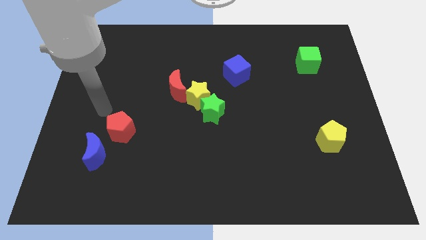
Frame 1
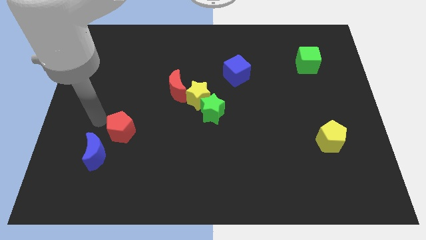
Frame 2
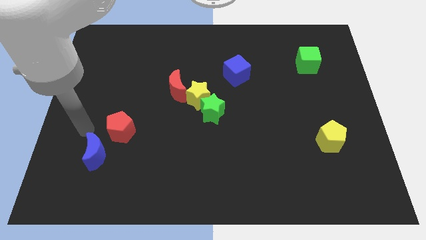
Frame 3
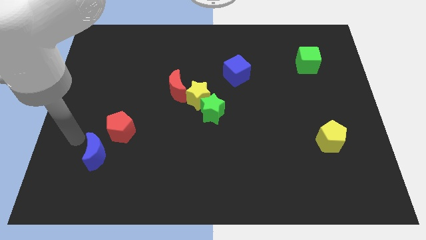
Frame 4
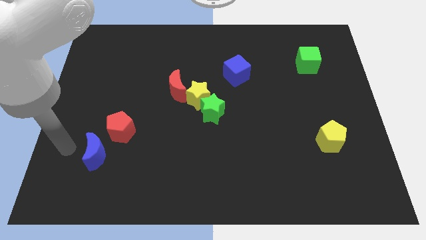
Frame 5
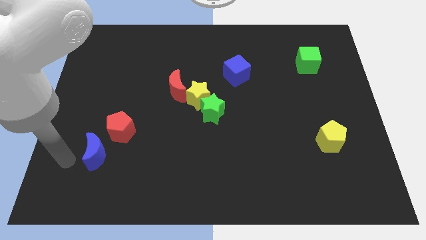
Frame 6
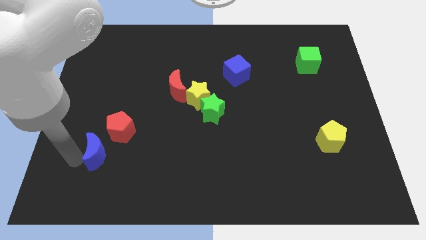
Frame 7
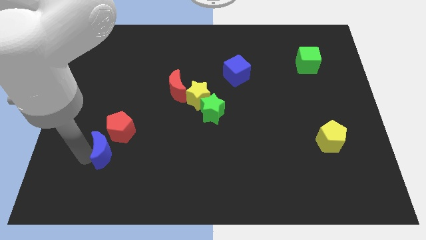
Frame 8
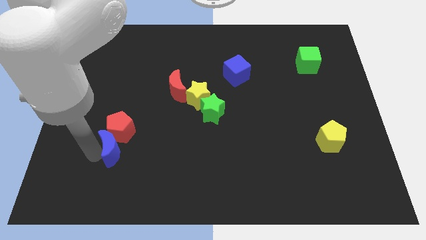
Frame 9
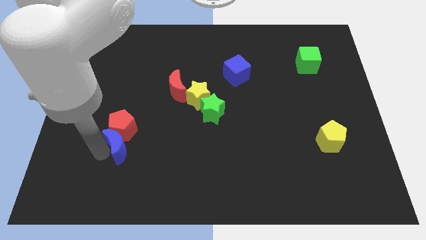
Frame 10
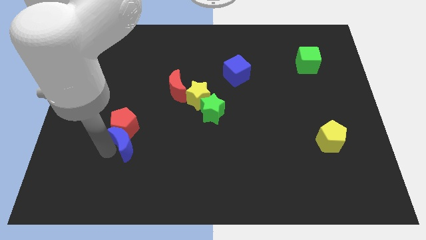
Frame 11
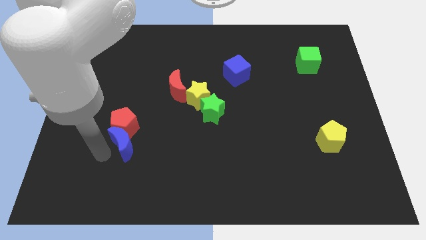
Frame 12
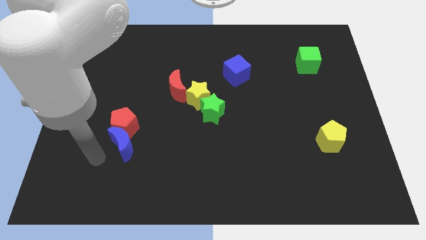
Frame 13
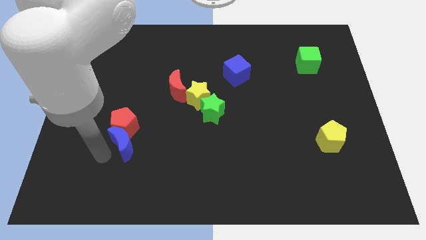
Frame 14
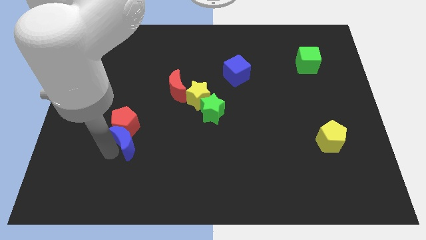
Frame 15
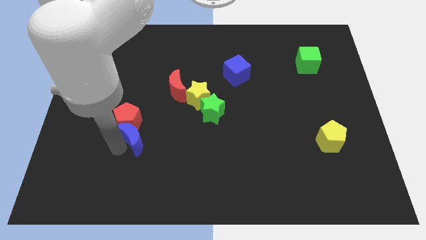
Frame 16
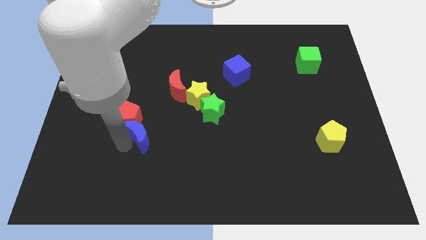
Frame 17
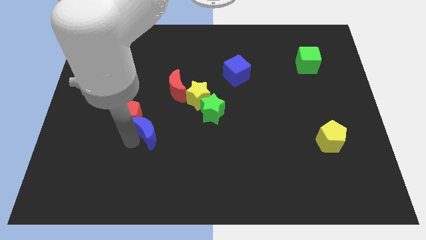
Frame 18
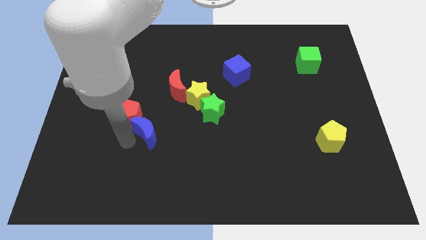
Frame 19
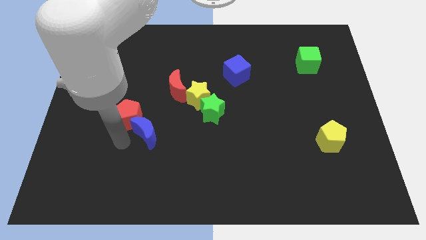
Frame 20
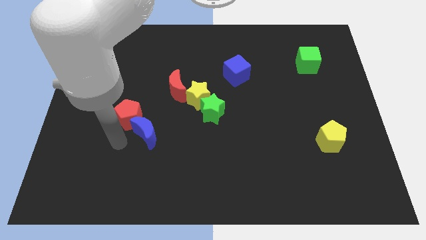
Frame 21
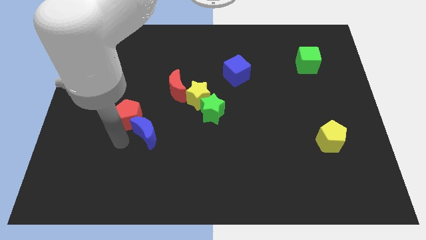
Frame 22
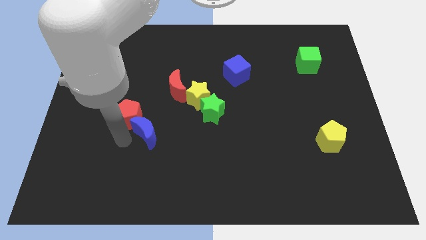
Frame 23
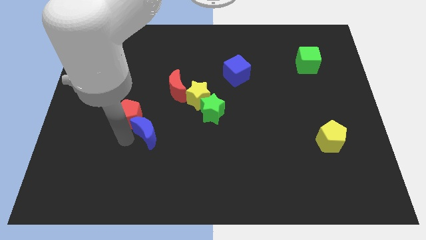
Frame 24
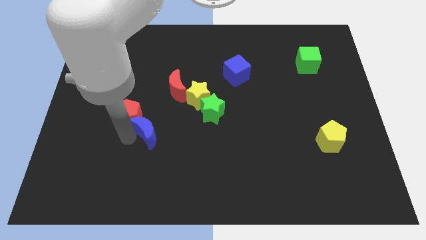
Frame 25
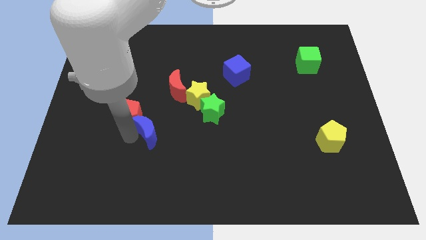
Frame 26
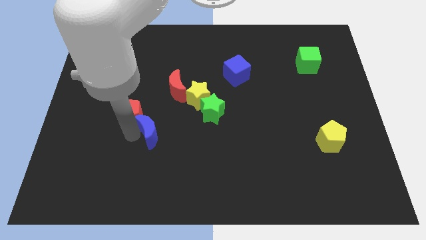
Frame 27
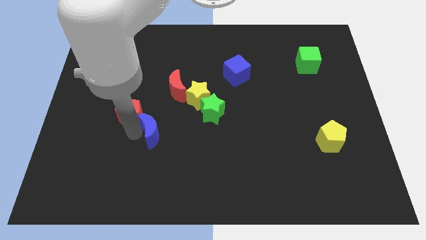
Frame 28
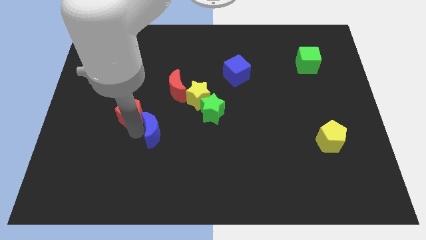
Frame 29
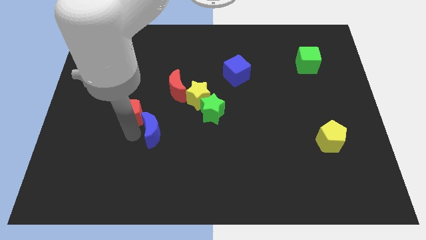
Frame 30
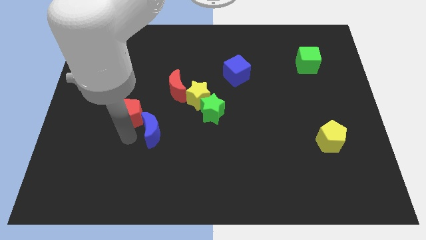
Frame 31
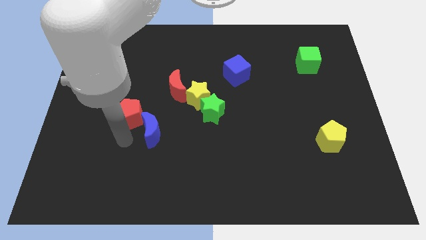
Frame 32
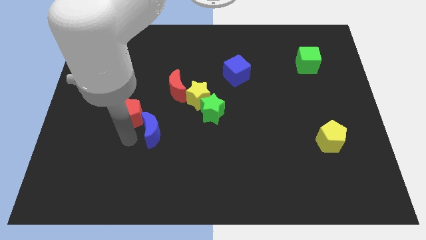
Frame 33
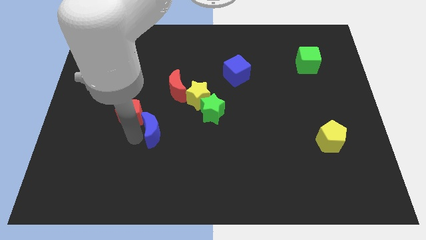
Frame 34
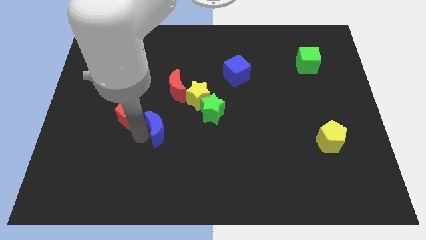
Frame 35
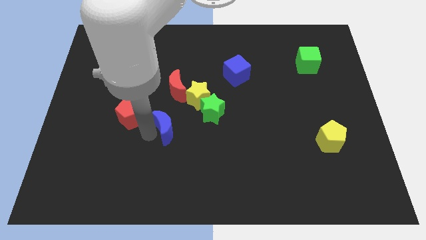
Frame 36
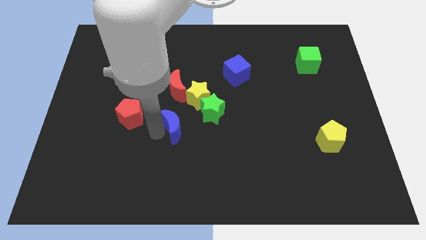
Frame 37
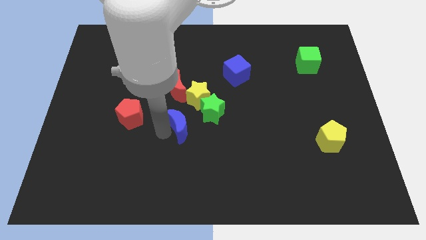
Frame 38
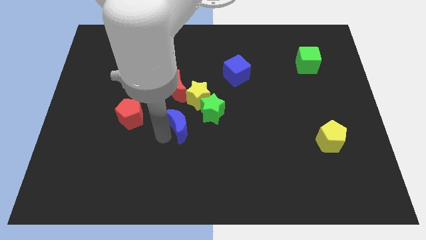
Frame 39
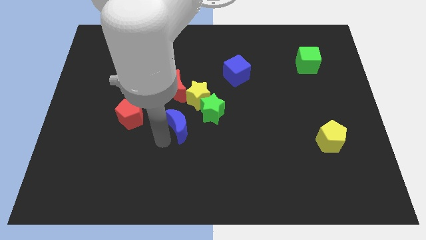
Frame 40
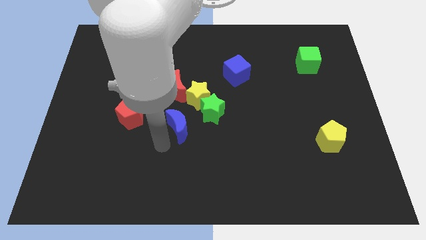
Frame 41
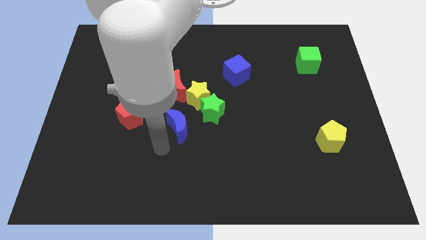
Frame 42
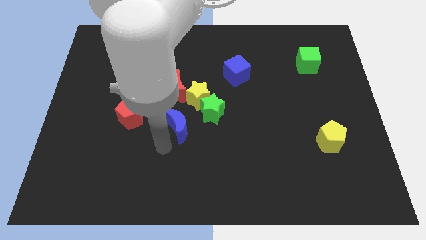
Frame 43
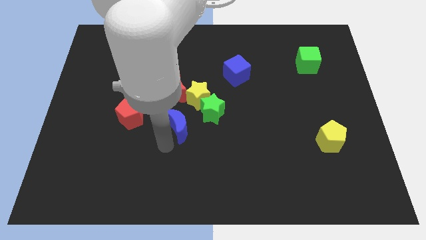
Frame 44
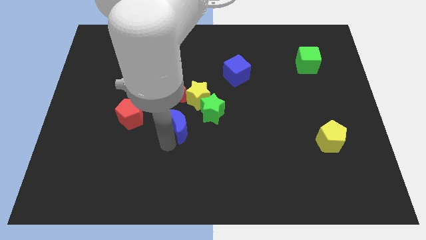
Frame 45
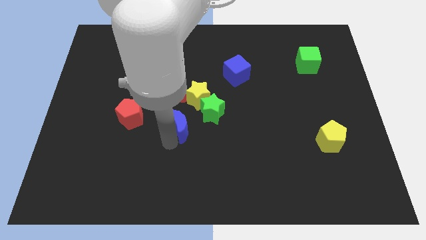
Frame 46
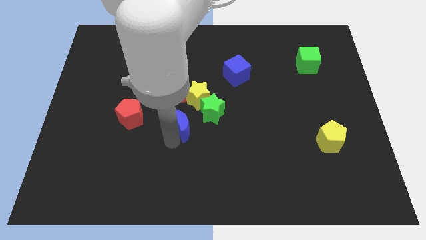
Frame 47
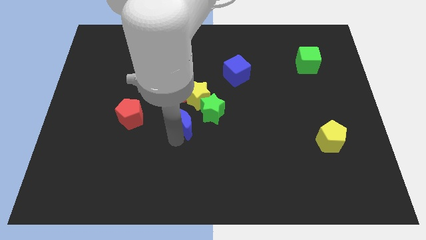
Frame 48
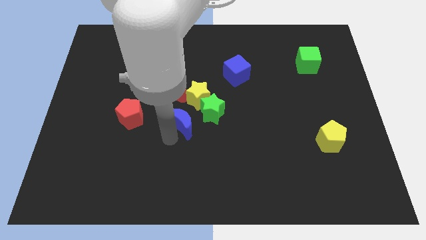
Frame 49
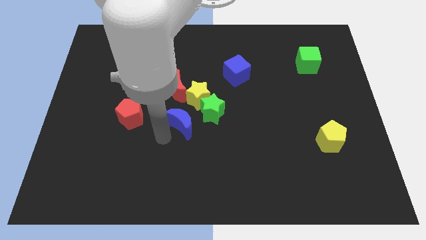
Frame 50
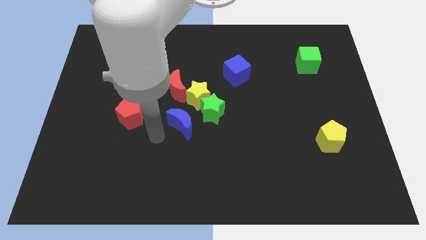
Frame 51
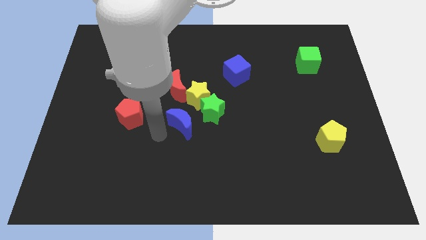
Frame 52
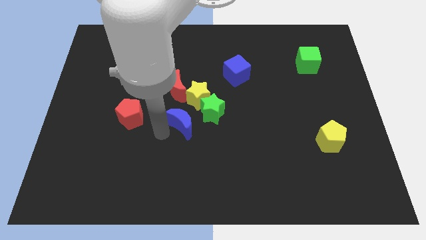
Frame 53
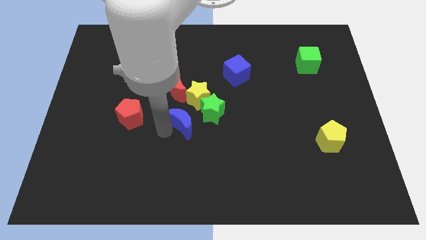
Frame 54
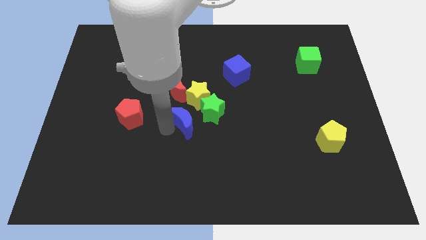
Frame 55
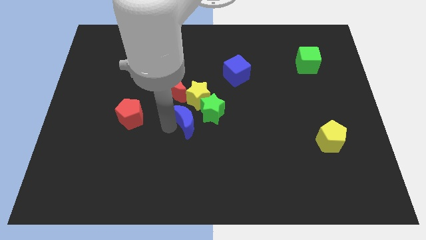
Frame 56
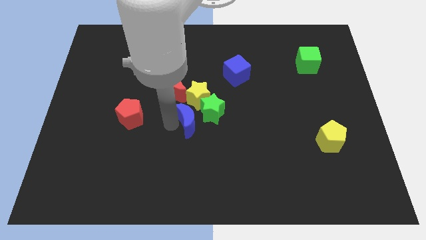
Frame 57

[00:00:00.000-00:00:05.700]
slide the blue moon close to the green star

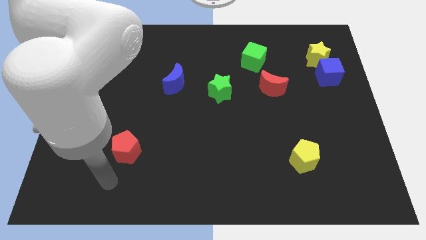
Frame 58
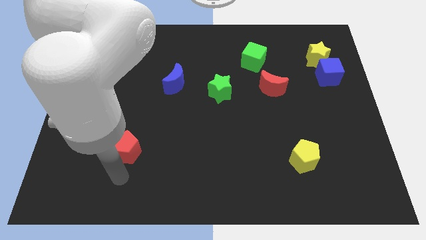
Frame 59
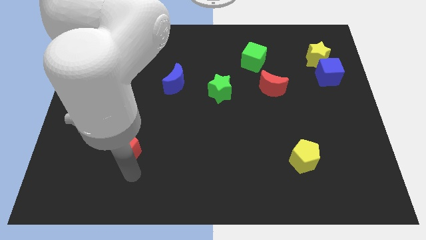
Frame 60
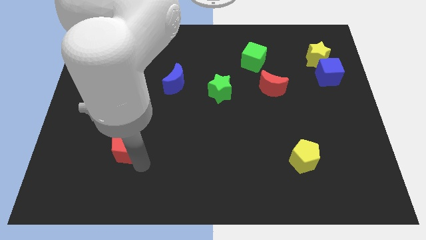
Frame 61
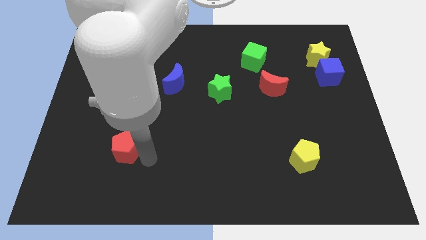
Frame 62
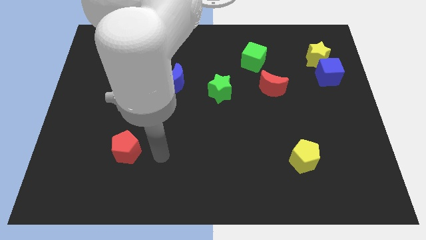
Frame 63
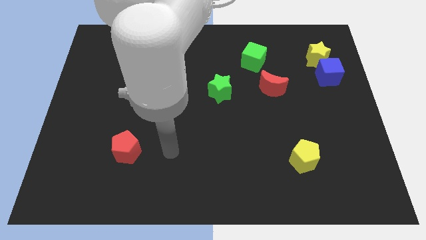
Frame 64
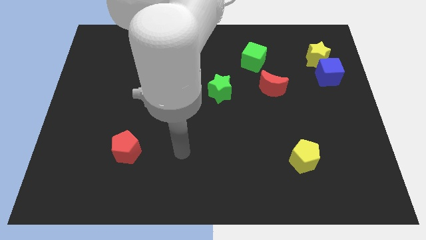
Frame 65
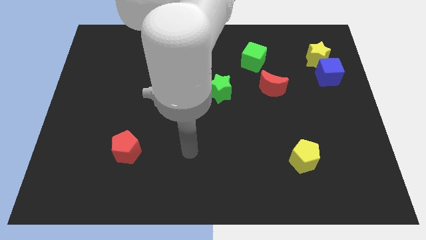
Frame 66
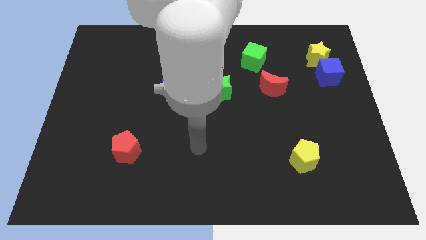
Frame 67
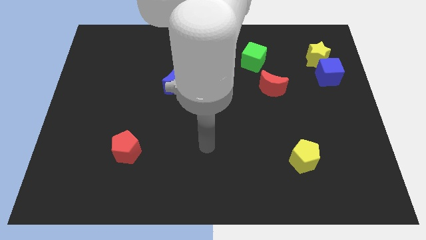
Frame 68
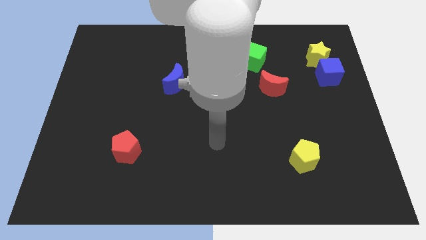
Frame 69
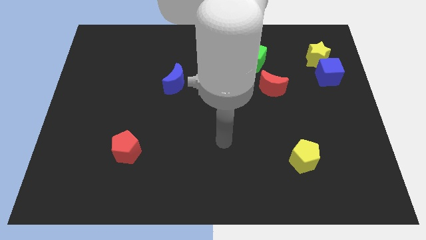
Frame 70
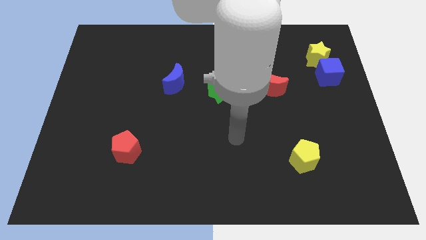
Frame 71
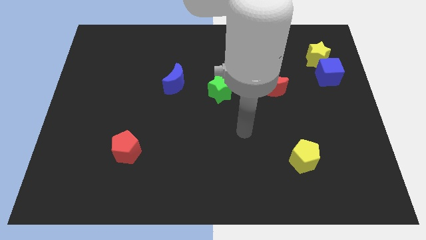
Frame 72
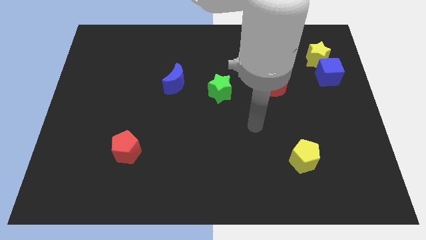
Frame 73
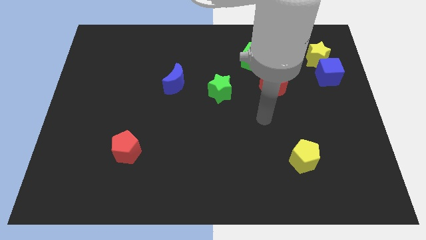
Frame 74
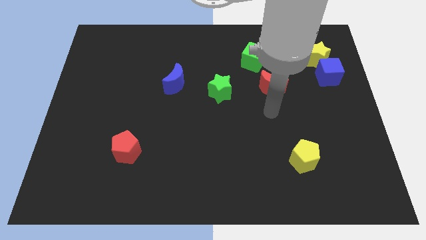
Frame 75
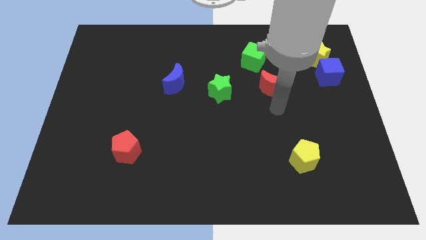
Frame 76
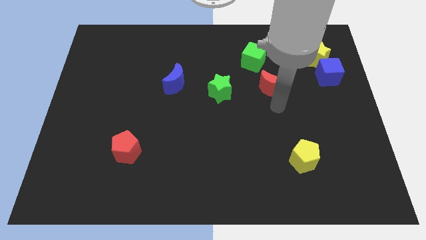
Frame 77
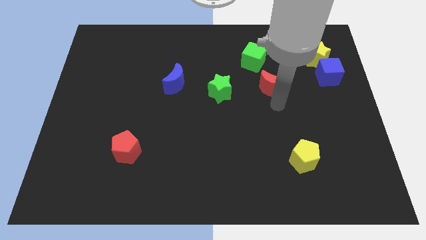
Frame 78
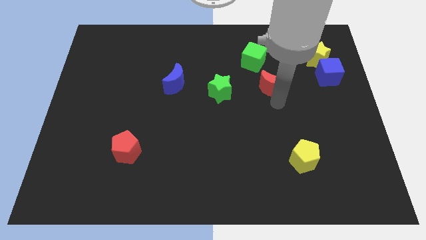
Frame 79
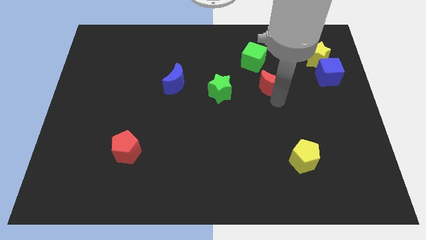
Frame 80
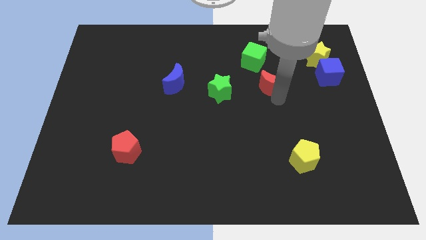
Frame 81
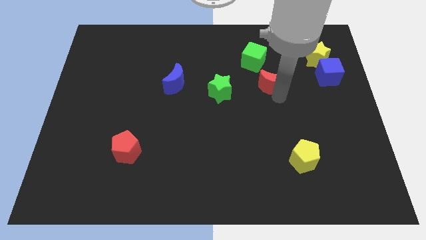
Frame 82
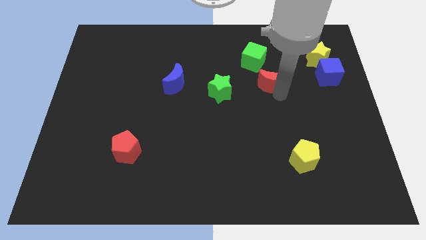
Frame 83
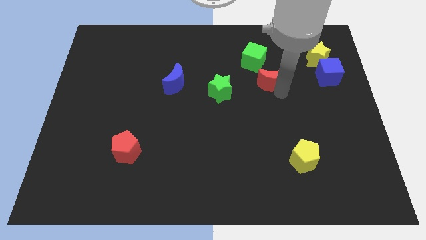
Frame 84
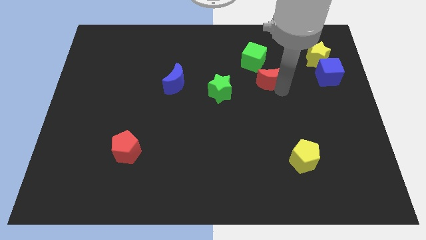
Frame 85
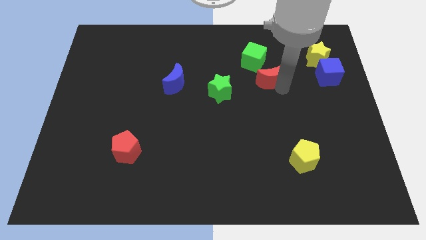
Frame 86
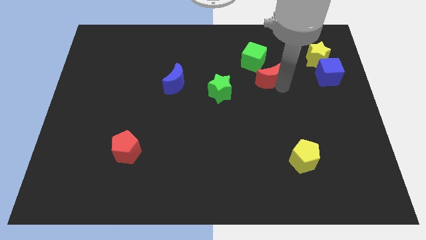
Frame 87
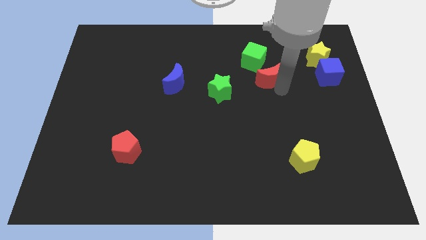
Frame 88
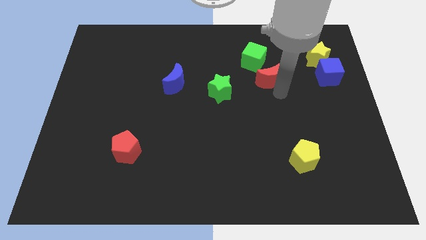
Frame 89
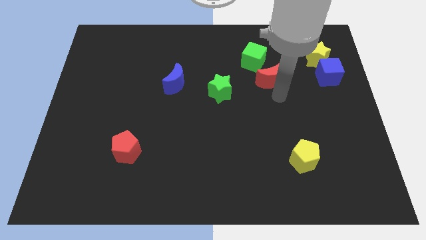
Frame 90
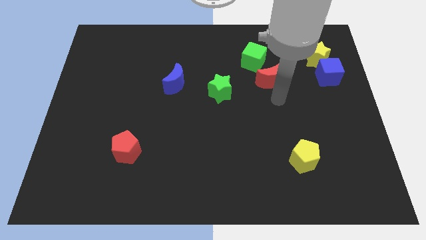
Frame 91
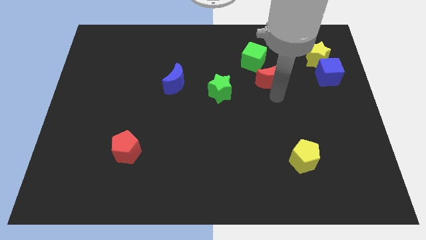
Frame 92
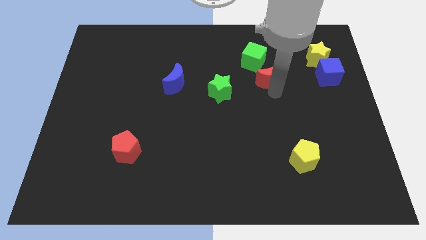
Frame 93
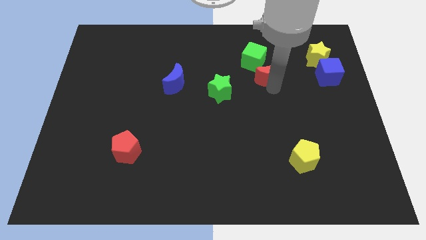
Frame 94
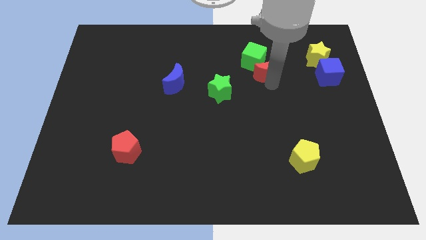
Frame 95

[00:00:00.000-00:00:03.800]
put the red moon close to the green cube
